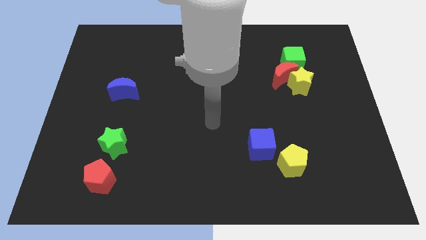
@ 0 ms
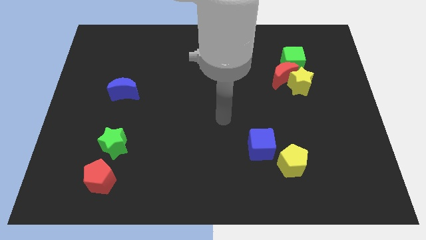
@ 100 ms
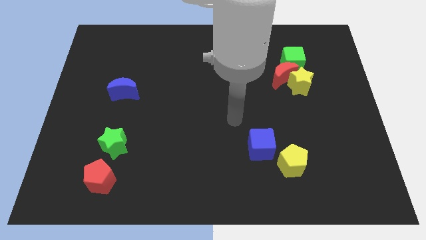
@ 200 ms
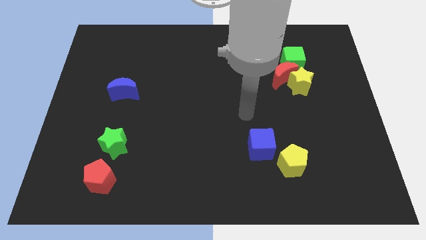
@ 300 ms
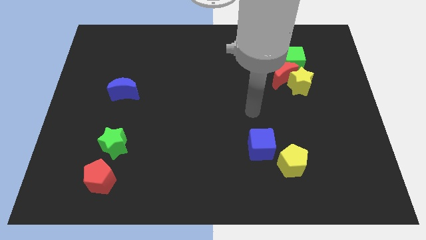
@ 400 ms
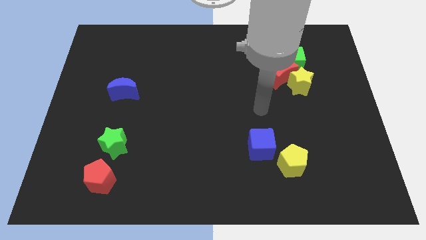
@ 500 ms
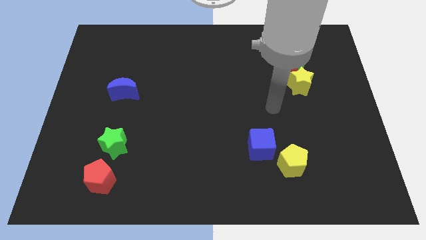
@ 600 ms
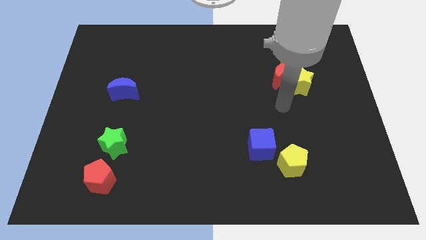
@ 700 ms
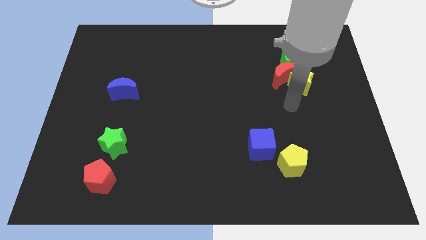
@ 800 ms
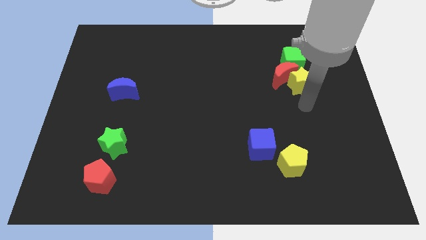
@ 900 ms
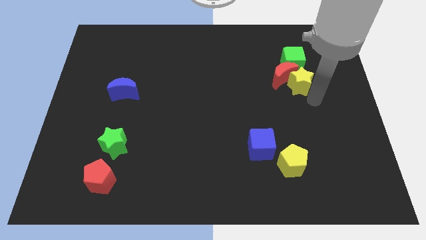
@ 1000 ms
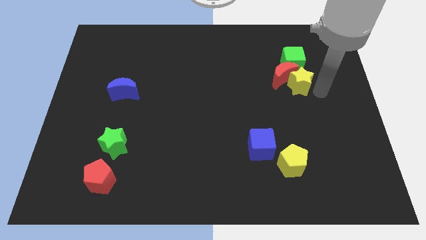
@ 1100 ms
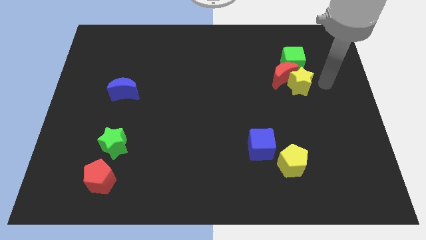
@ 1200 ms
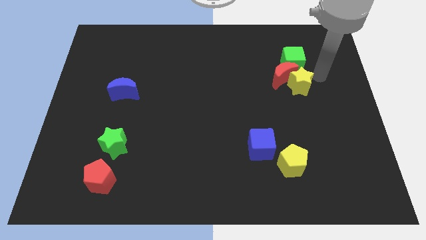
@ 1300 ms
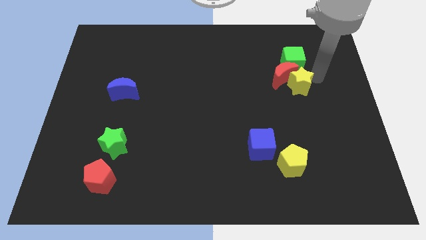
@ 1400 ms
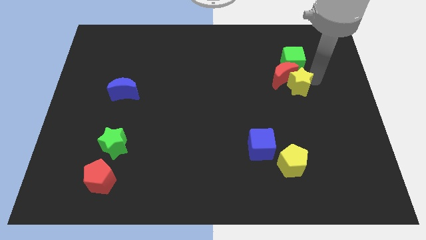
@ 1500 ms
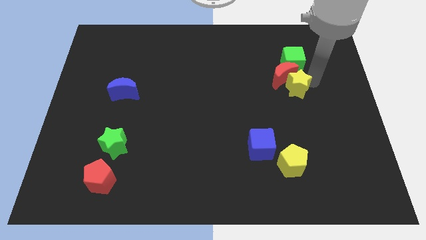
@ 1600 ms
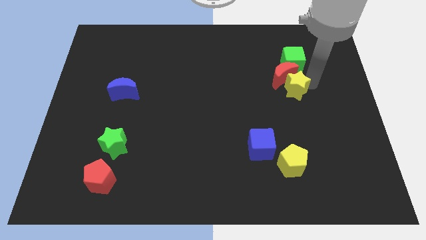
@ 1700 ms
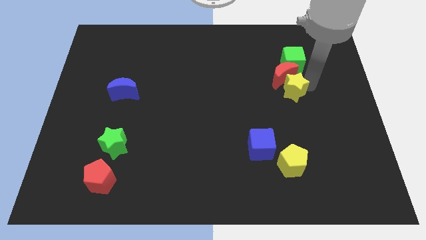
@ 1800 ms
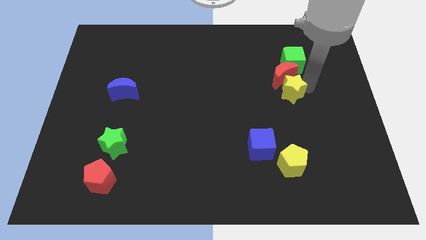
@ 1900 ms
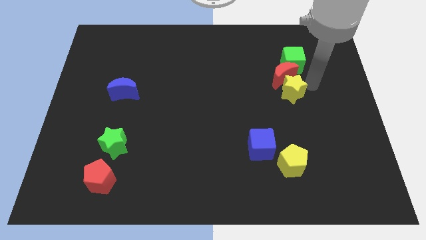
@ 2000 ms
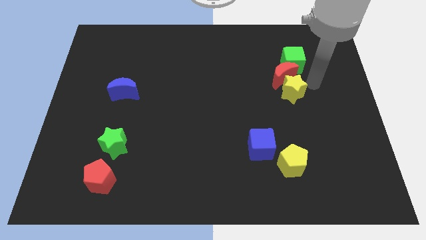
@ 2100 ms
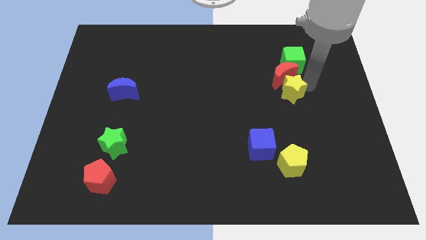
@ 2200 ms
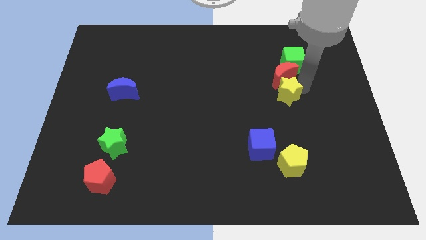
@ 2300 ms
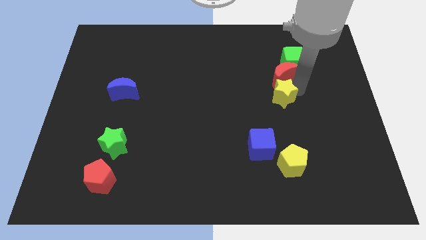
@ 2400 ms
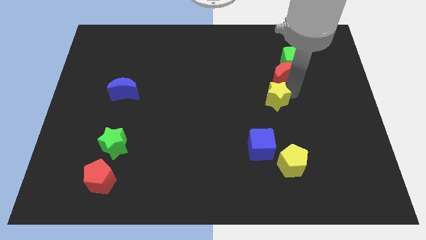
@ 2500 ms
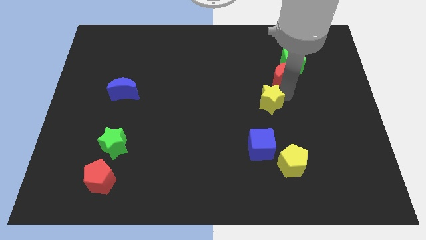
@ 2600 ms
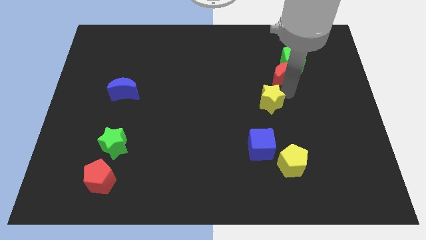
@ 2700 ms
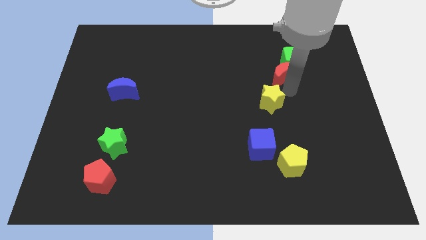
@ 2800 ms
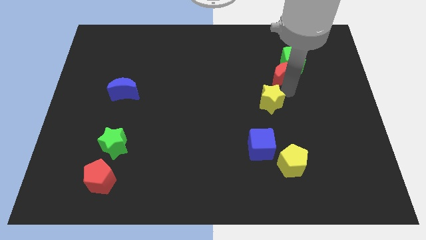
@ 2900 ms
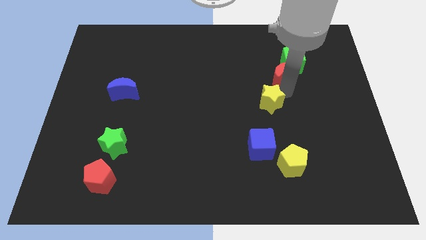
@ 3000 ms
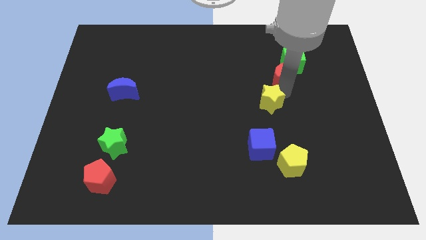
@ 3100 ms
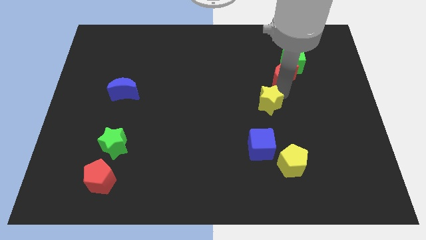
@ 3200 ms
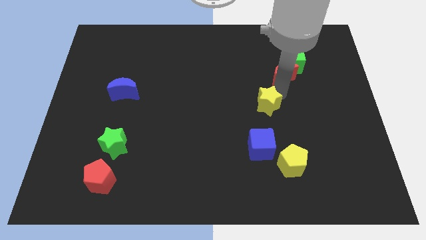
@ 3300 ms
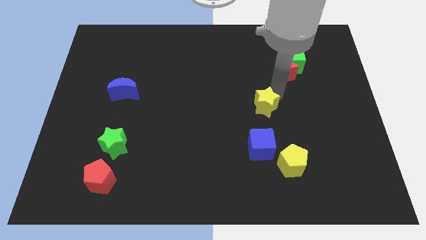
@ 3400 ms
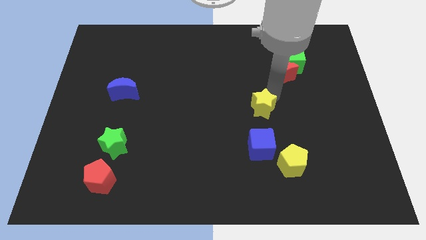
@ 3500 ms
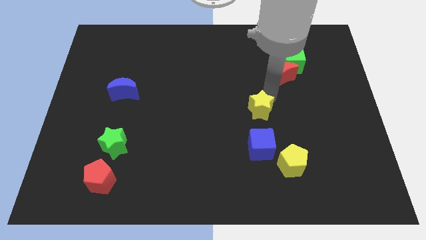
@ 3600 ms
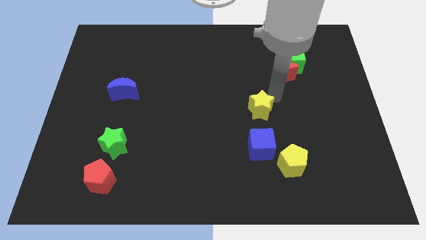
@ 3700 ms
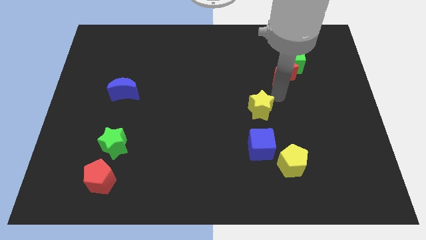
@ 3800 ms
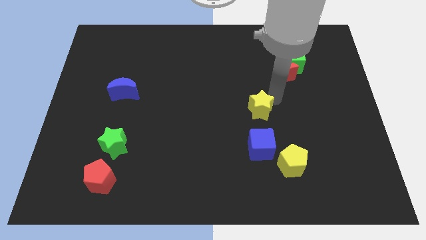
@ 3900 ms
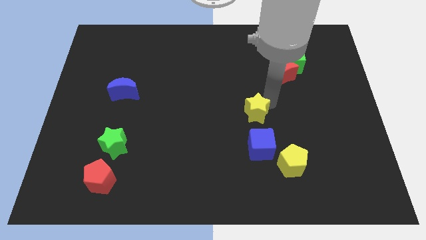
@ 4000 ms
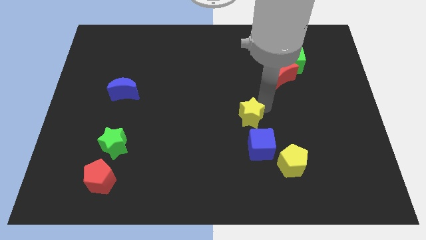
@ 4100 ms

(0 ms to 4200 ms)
push the yellow star to the top left side of the blue cube

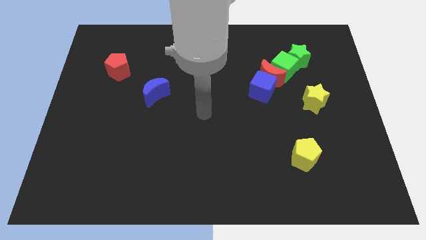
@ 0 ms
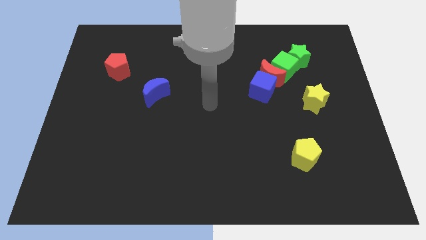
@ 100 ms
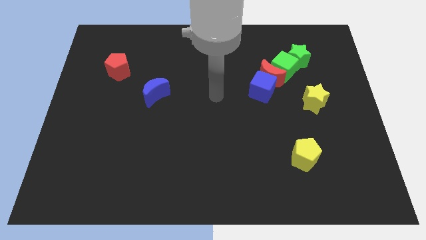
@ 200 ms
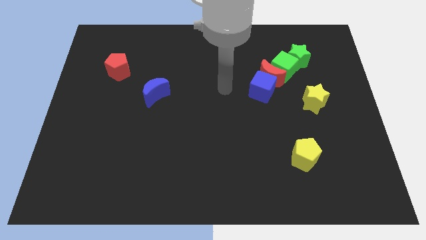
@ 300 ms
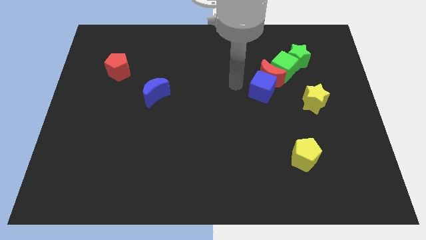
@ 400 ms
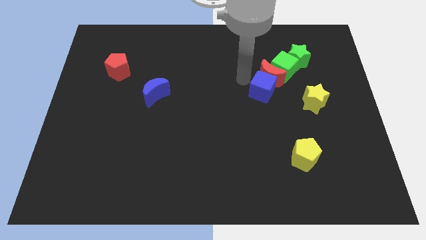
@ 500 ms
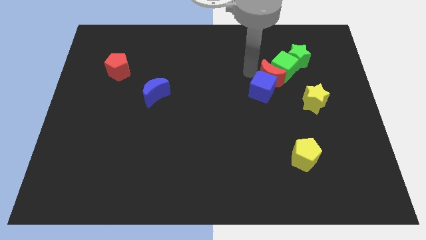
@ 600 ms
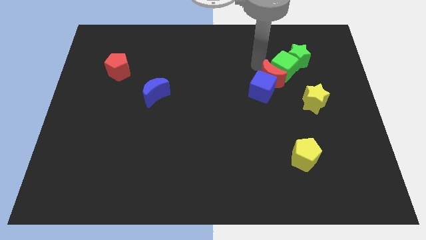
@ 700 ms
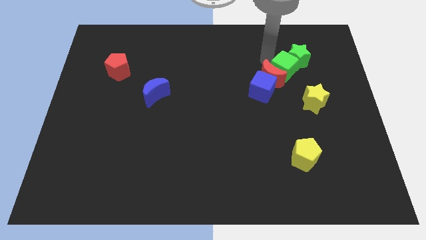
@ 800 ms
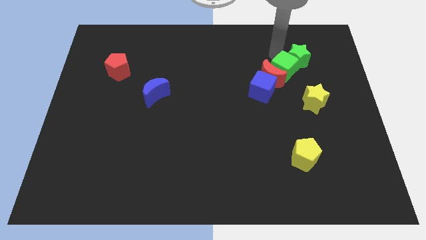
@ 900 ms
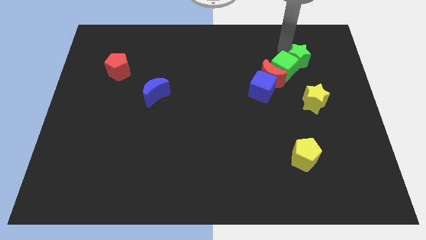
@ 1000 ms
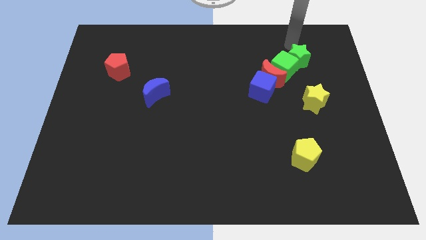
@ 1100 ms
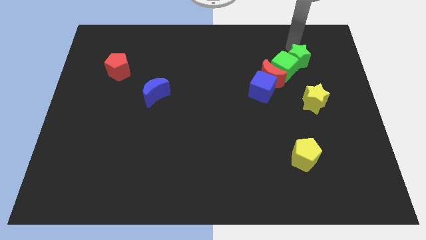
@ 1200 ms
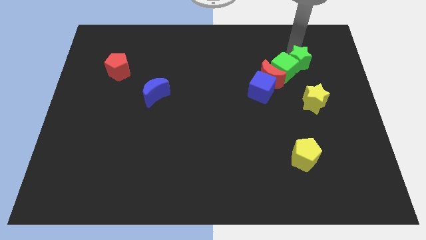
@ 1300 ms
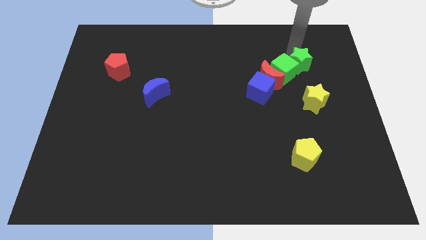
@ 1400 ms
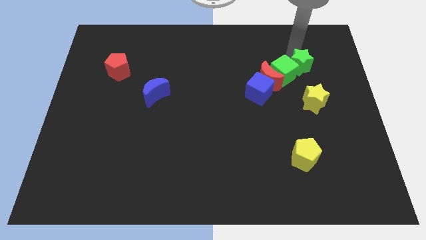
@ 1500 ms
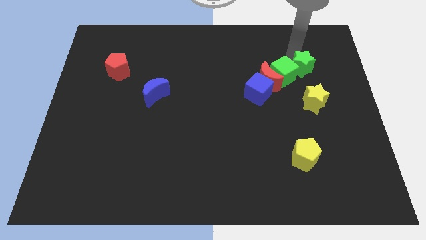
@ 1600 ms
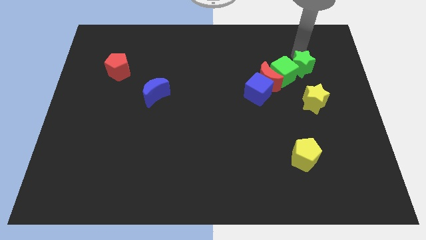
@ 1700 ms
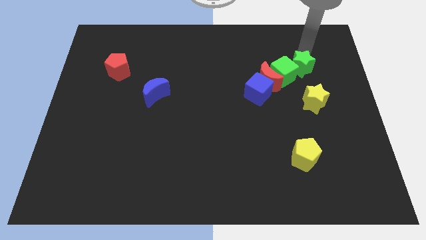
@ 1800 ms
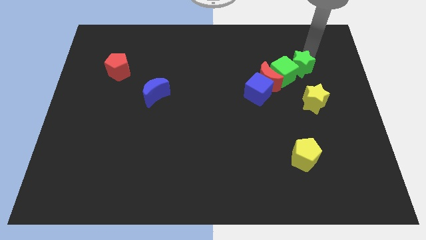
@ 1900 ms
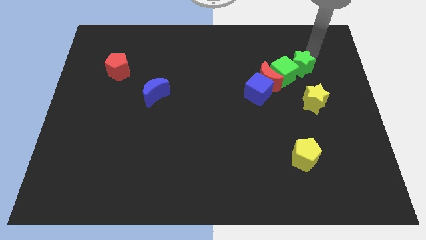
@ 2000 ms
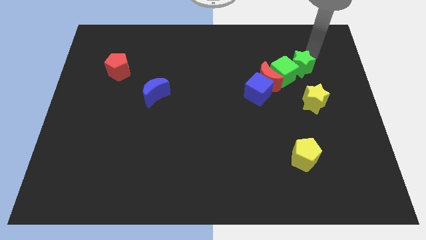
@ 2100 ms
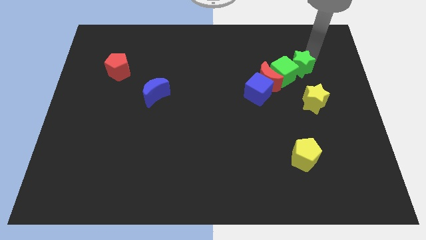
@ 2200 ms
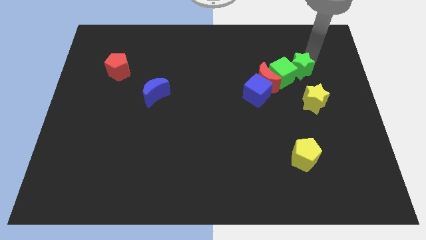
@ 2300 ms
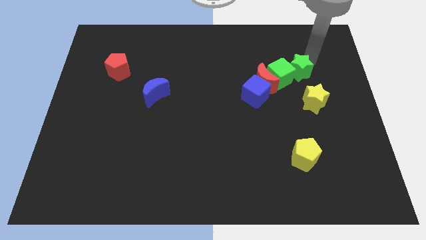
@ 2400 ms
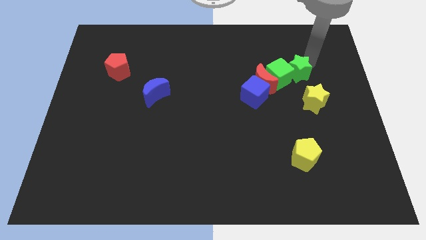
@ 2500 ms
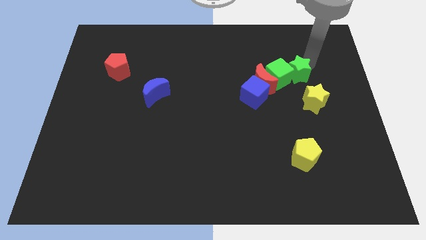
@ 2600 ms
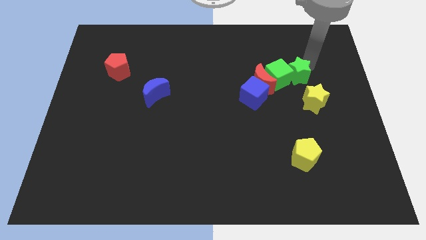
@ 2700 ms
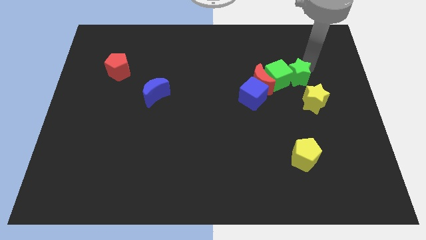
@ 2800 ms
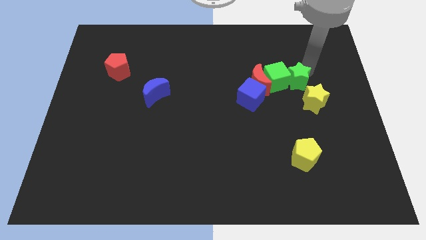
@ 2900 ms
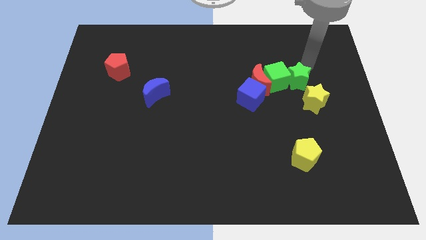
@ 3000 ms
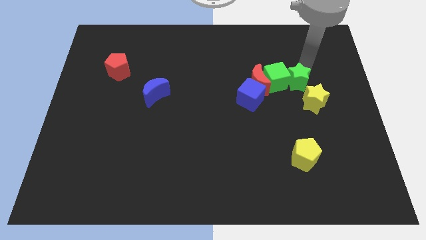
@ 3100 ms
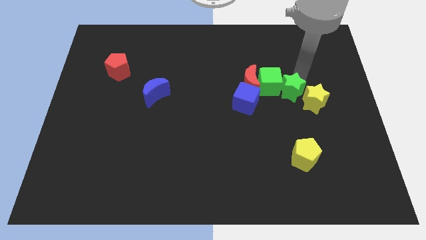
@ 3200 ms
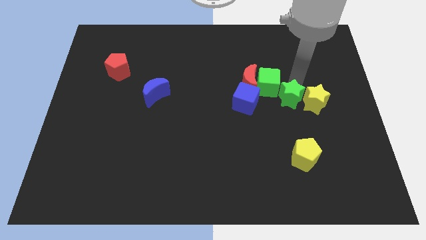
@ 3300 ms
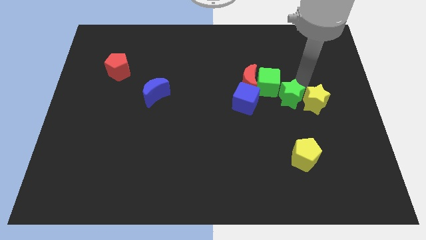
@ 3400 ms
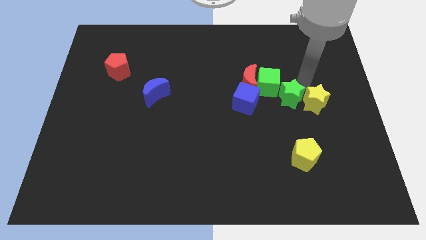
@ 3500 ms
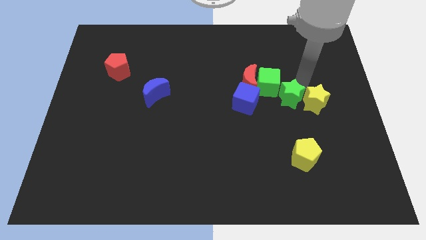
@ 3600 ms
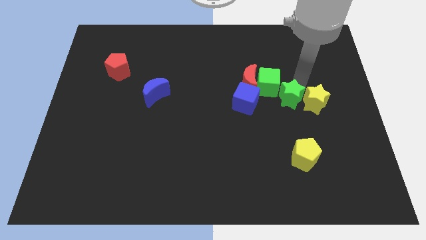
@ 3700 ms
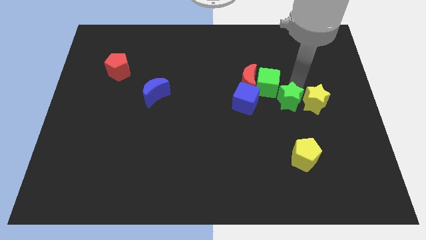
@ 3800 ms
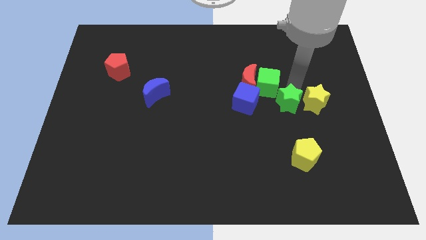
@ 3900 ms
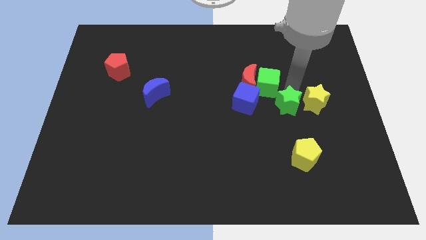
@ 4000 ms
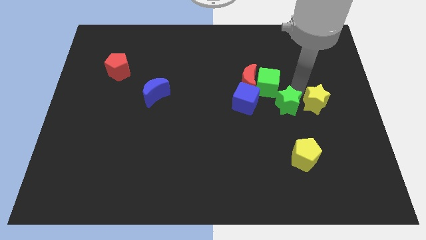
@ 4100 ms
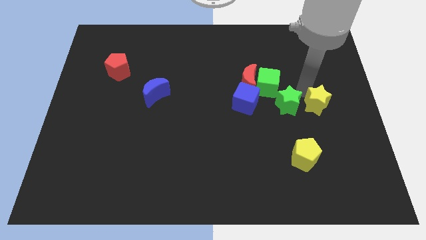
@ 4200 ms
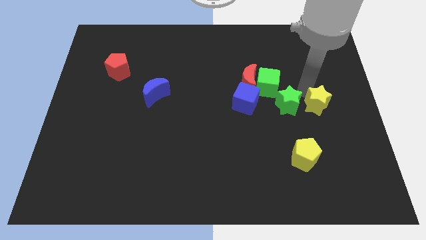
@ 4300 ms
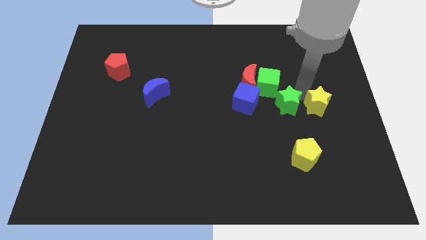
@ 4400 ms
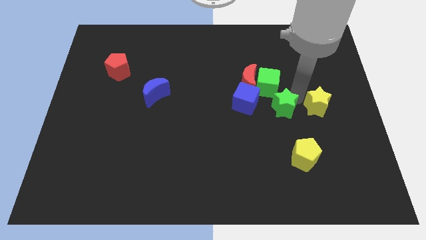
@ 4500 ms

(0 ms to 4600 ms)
push the green star to the bottom right of the blue cube
